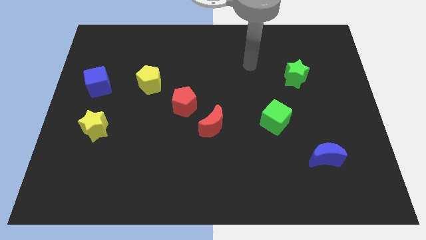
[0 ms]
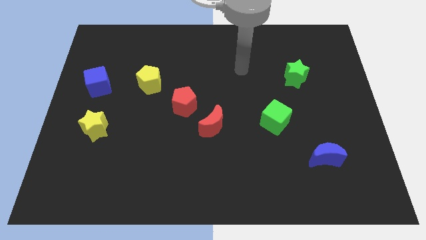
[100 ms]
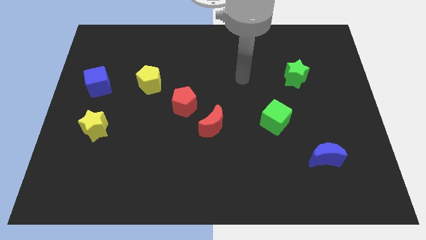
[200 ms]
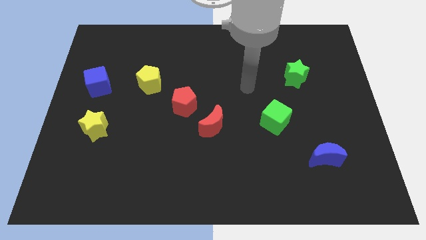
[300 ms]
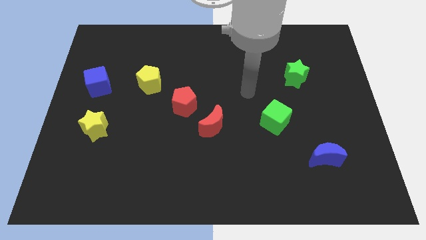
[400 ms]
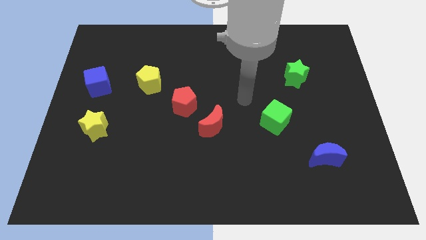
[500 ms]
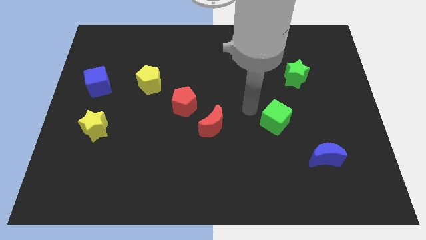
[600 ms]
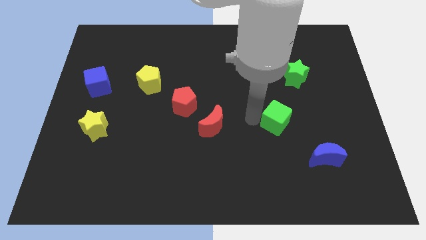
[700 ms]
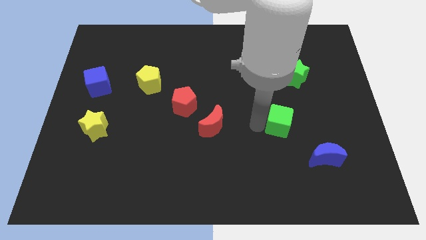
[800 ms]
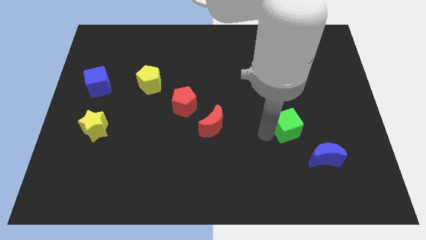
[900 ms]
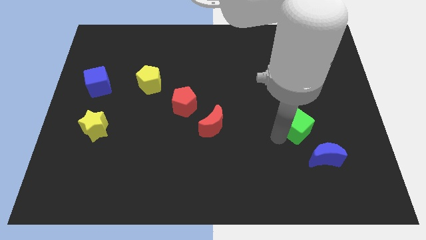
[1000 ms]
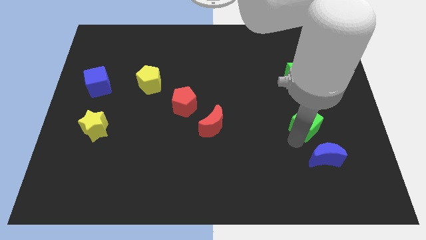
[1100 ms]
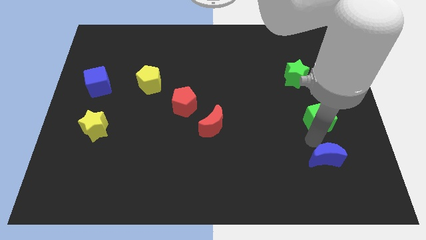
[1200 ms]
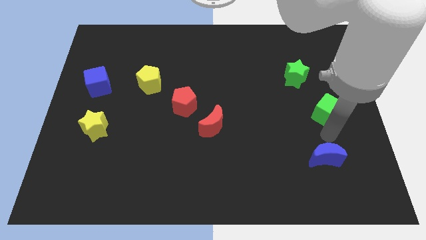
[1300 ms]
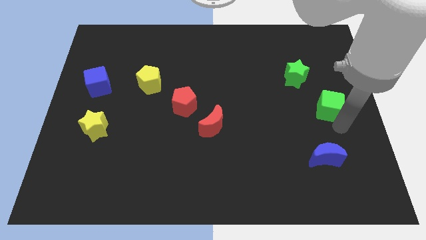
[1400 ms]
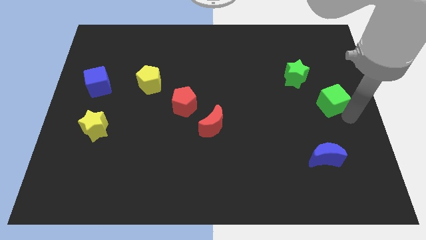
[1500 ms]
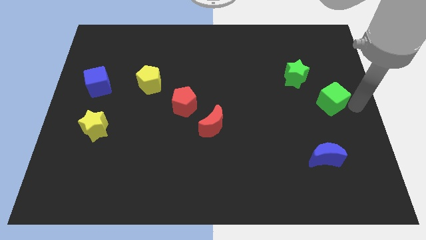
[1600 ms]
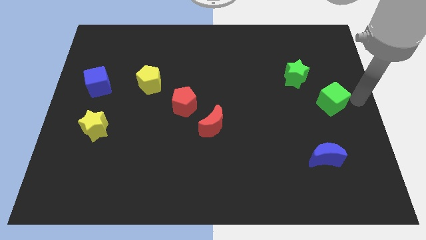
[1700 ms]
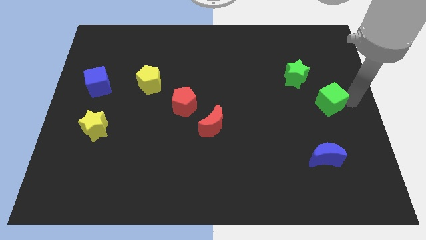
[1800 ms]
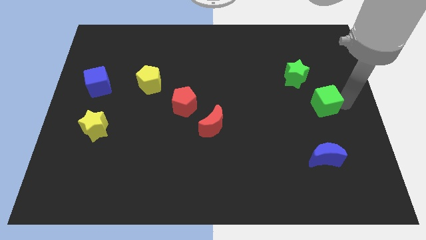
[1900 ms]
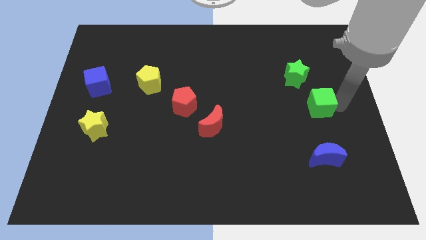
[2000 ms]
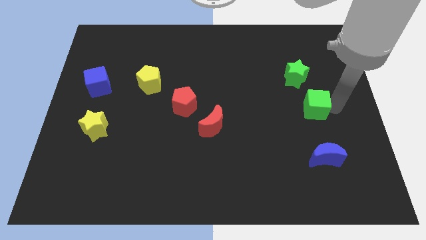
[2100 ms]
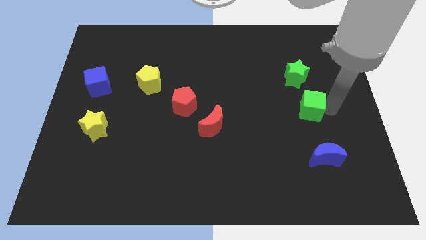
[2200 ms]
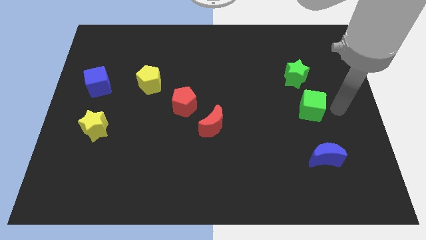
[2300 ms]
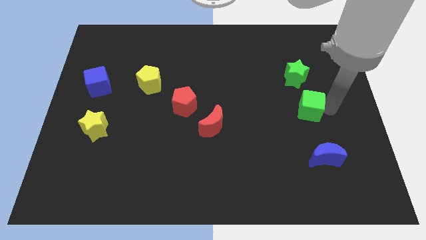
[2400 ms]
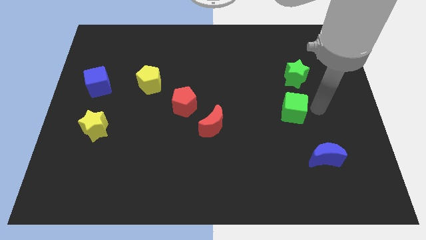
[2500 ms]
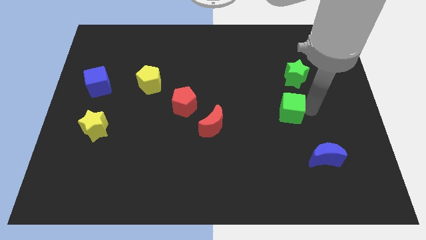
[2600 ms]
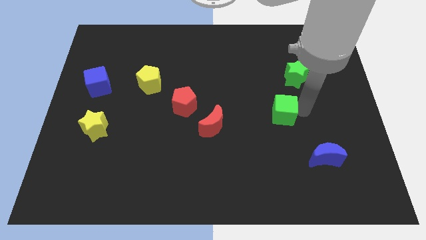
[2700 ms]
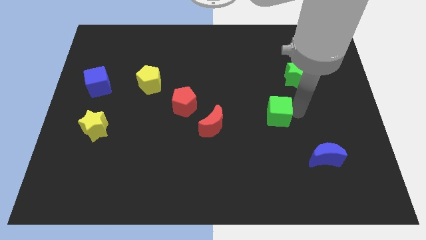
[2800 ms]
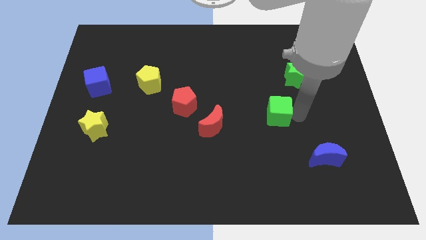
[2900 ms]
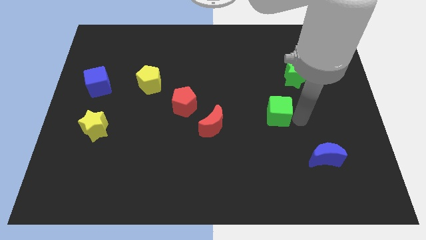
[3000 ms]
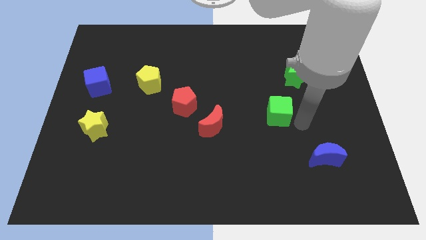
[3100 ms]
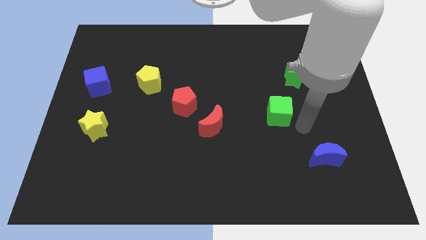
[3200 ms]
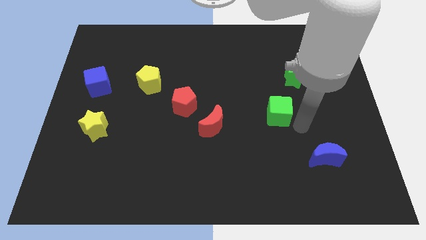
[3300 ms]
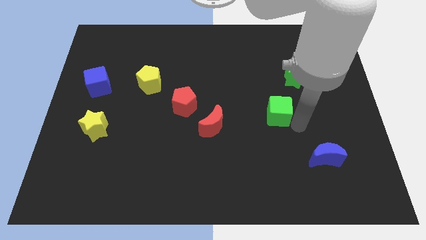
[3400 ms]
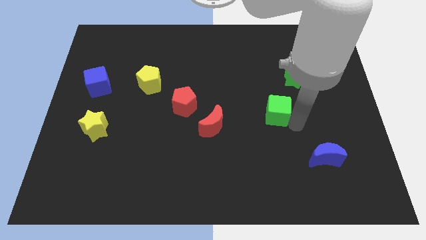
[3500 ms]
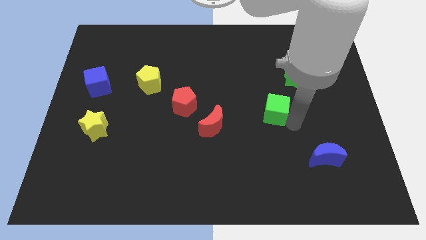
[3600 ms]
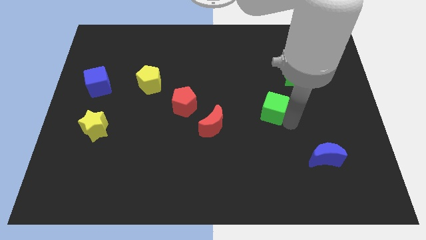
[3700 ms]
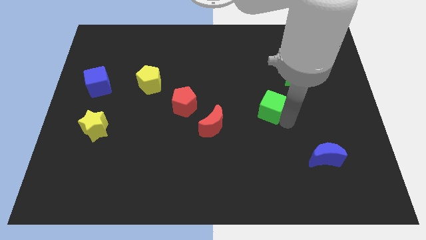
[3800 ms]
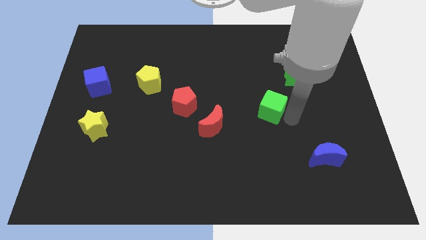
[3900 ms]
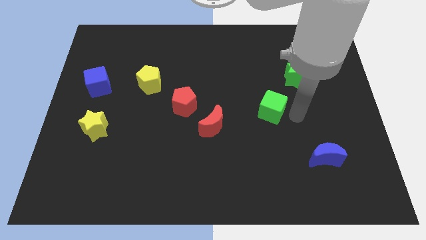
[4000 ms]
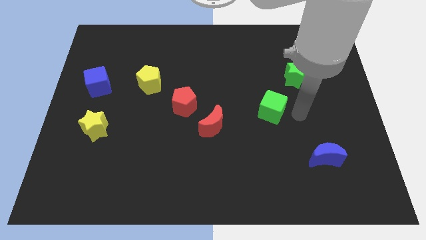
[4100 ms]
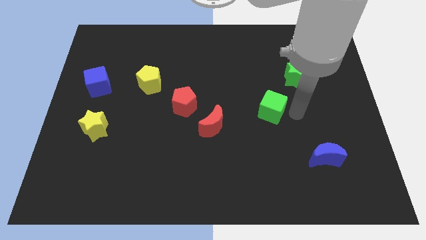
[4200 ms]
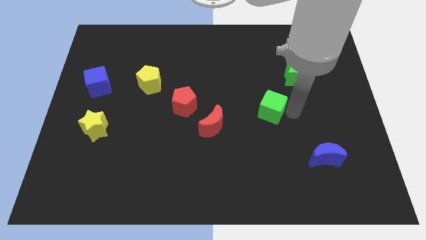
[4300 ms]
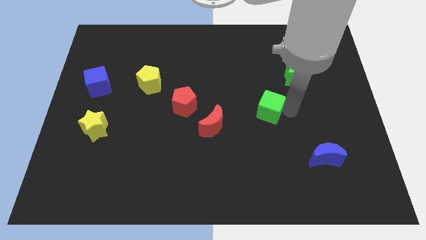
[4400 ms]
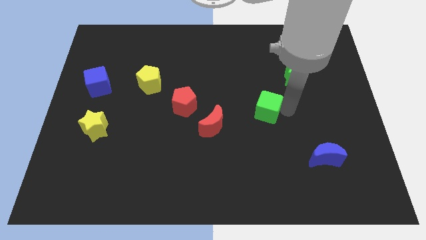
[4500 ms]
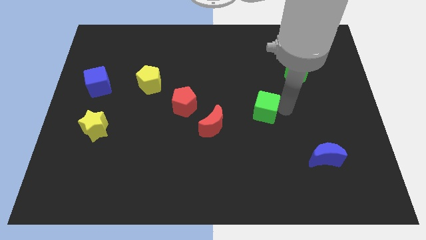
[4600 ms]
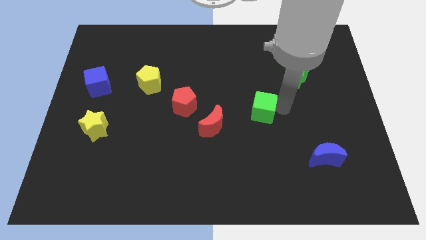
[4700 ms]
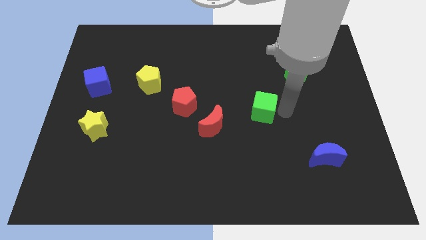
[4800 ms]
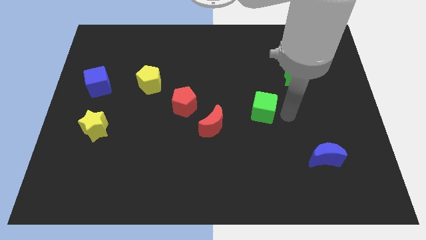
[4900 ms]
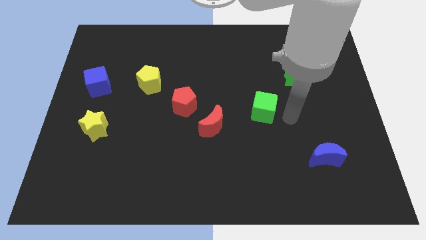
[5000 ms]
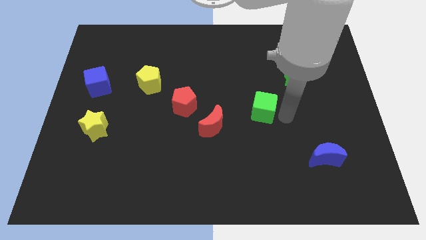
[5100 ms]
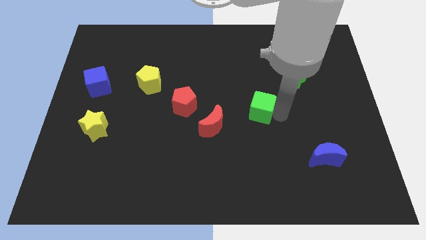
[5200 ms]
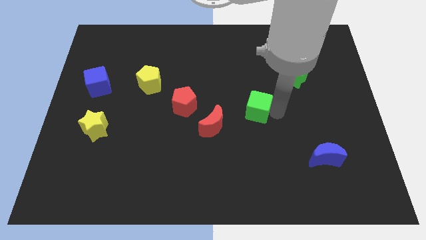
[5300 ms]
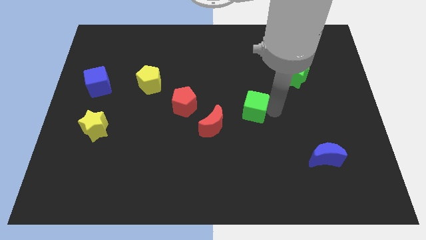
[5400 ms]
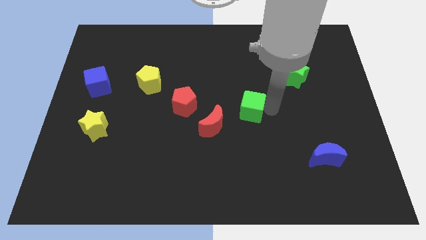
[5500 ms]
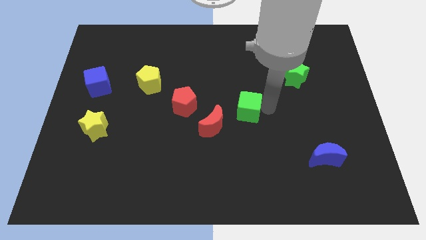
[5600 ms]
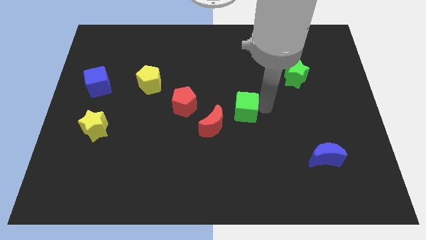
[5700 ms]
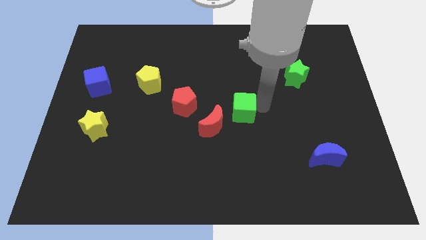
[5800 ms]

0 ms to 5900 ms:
move the green cube to the left a little

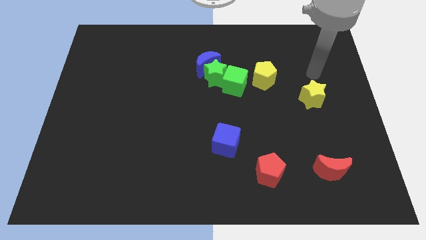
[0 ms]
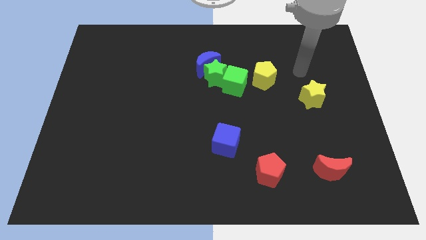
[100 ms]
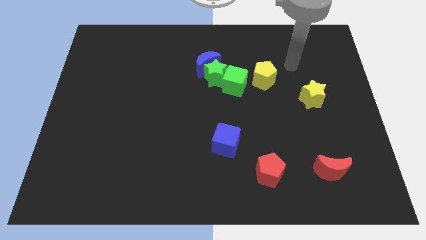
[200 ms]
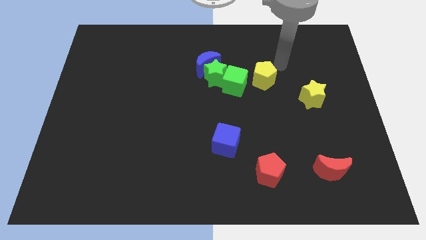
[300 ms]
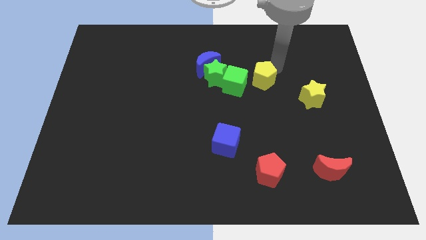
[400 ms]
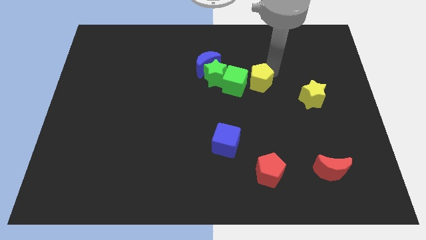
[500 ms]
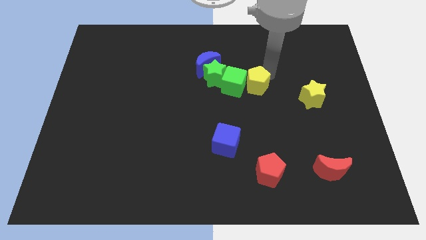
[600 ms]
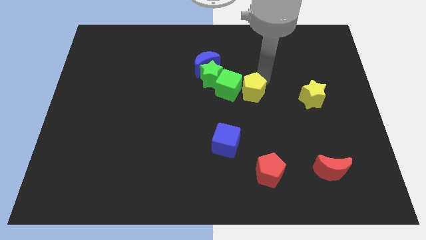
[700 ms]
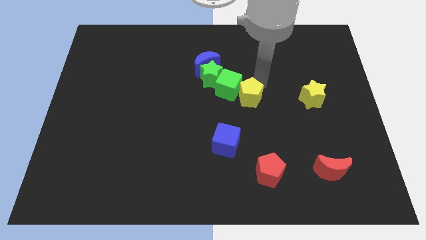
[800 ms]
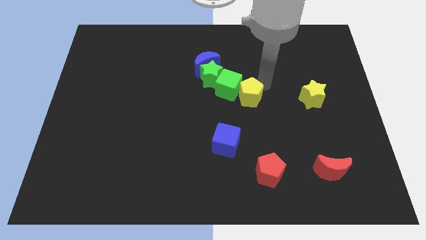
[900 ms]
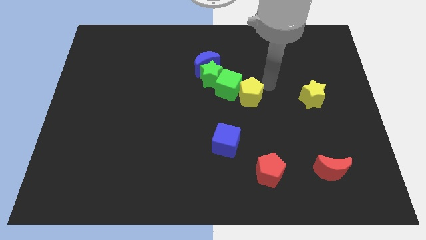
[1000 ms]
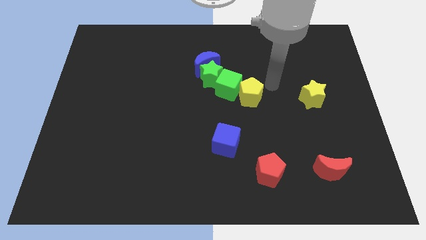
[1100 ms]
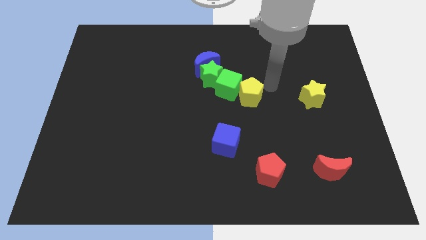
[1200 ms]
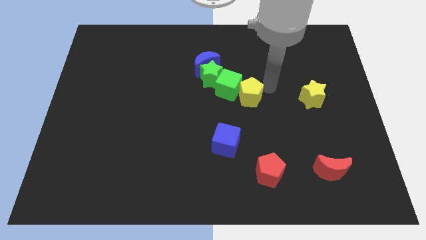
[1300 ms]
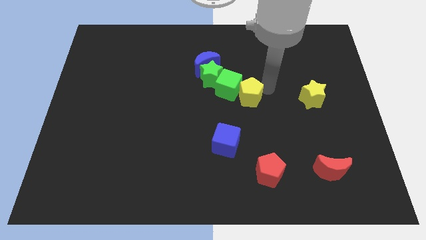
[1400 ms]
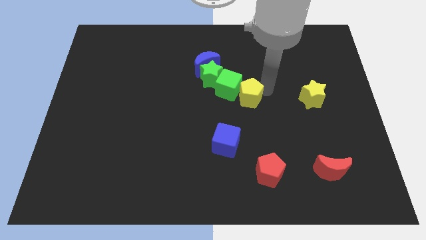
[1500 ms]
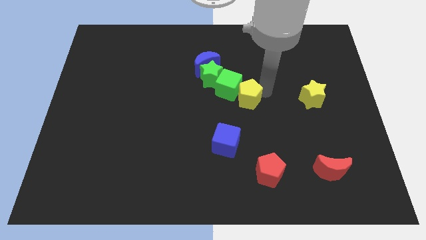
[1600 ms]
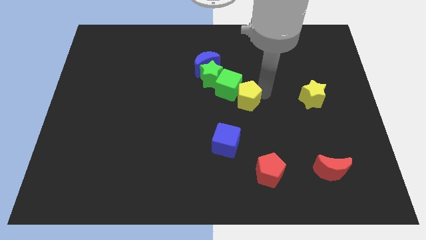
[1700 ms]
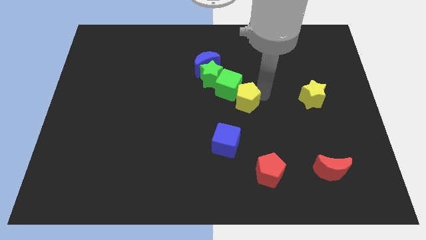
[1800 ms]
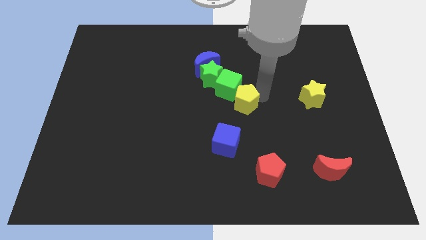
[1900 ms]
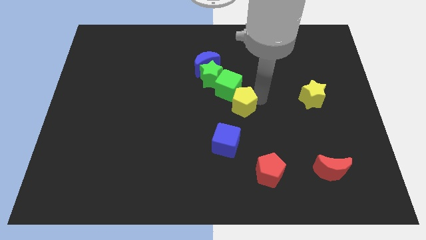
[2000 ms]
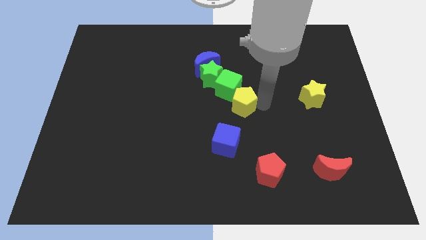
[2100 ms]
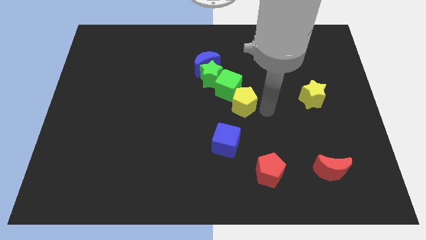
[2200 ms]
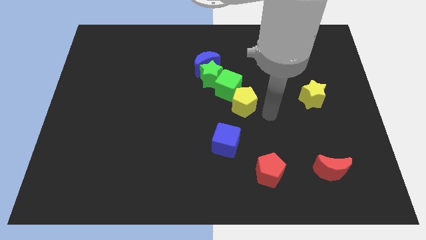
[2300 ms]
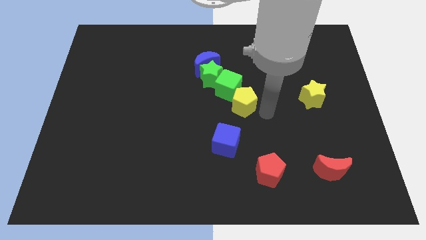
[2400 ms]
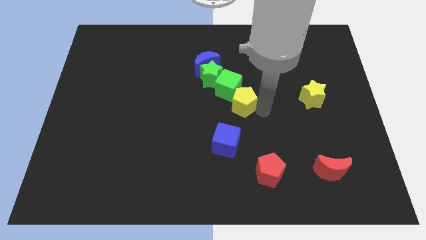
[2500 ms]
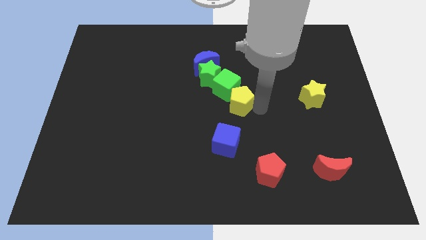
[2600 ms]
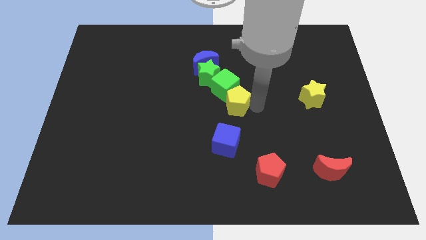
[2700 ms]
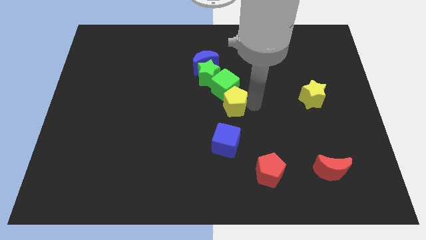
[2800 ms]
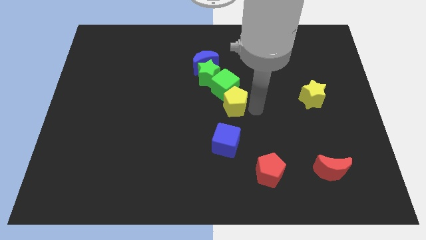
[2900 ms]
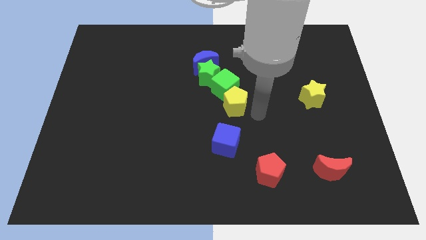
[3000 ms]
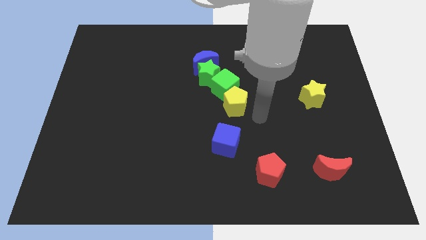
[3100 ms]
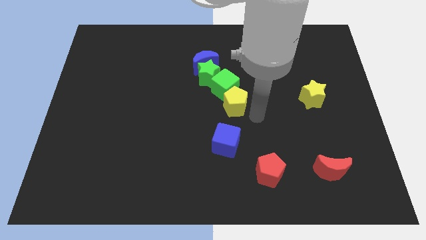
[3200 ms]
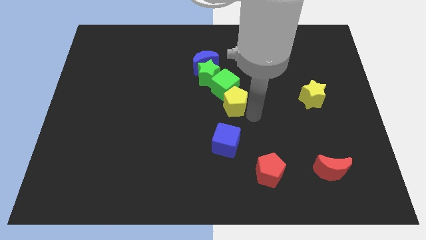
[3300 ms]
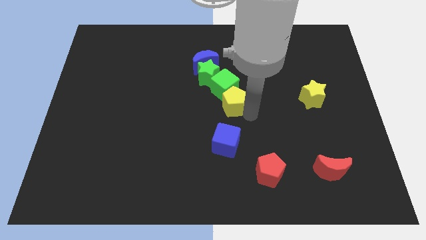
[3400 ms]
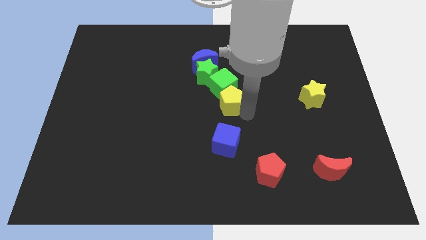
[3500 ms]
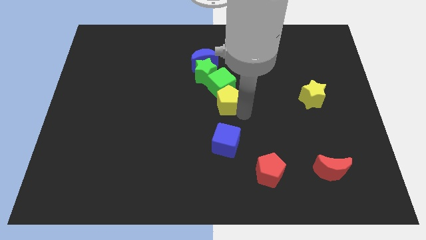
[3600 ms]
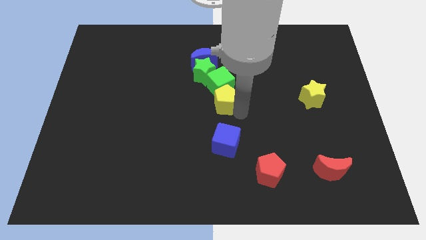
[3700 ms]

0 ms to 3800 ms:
slide the yellow pentagon slightly left
